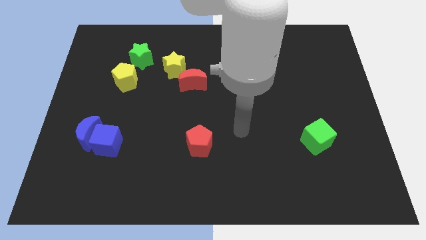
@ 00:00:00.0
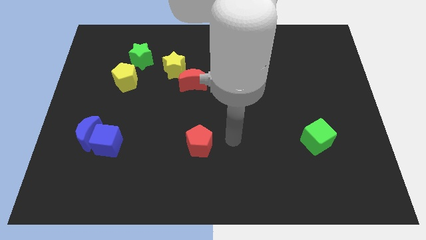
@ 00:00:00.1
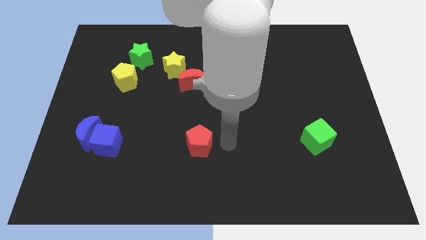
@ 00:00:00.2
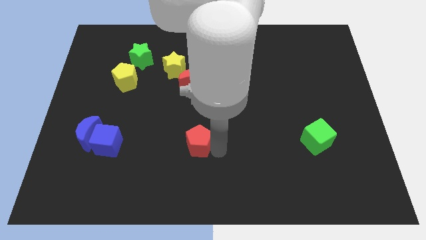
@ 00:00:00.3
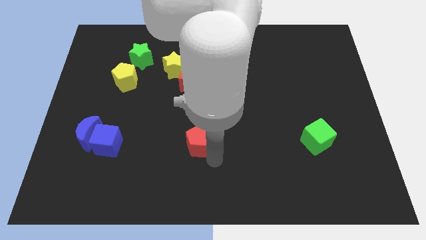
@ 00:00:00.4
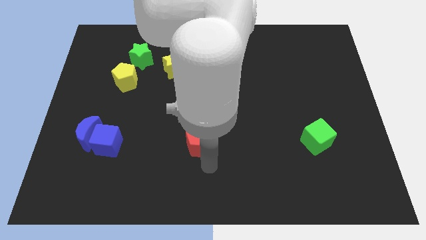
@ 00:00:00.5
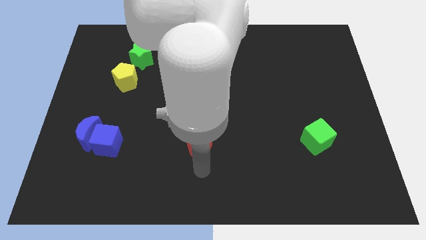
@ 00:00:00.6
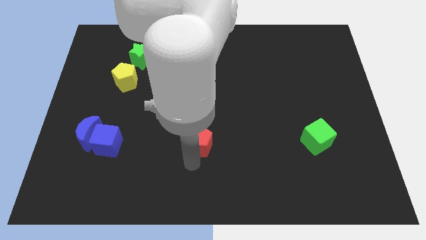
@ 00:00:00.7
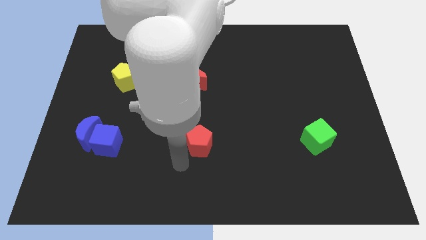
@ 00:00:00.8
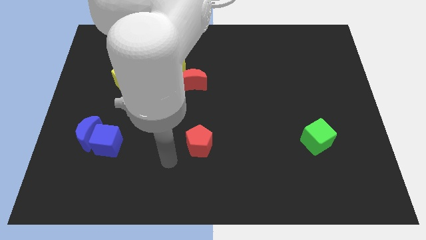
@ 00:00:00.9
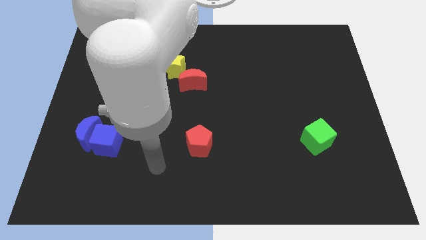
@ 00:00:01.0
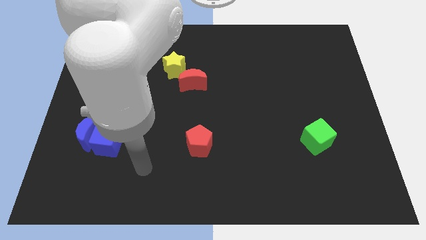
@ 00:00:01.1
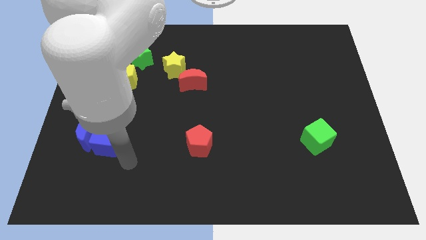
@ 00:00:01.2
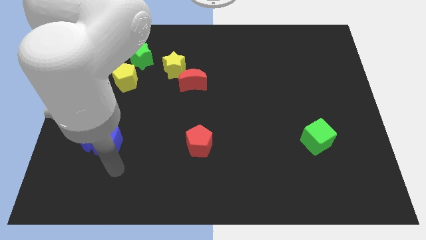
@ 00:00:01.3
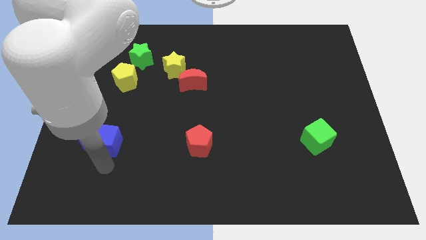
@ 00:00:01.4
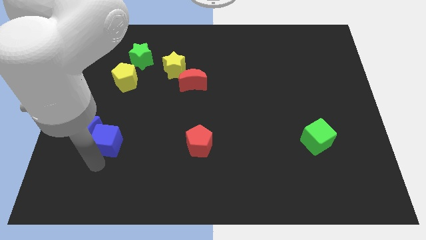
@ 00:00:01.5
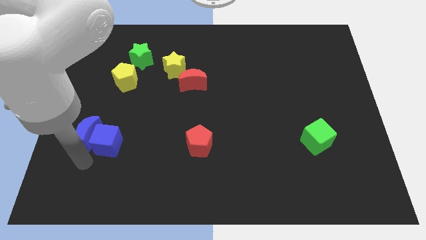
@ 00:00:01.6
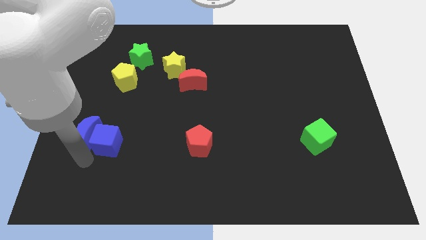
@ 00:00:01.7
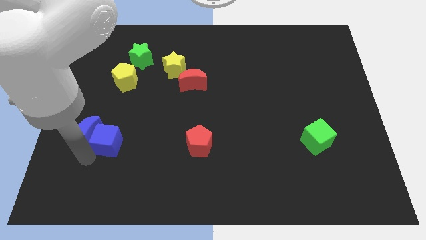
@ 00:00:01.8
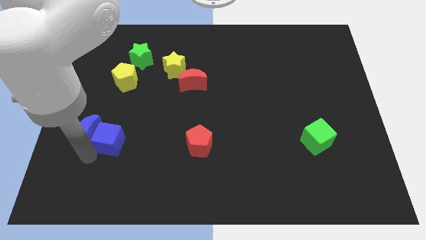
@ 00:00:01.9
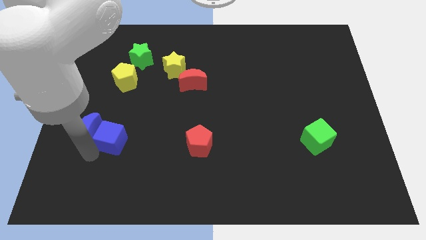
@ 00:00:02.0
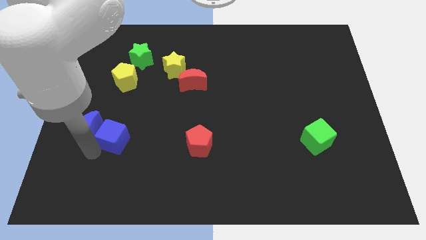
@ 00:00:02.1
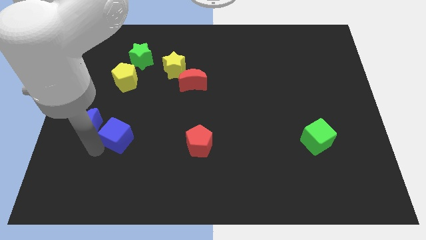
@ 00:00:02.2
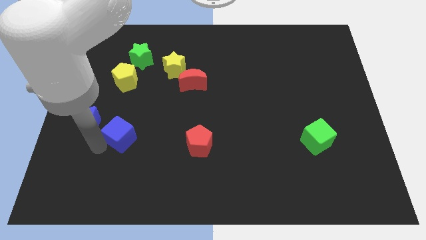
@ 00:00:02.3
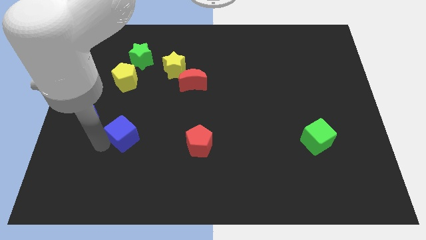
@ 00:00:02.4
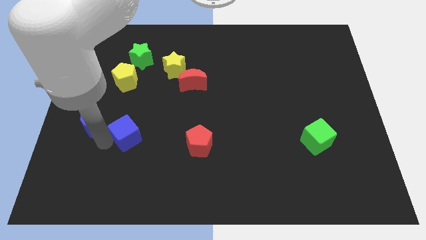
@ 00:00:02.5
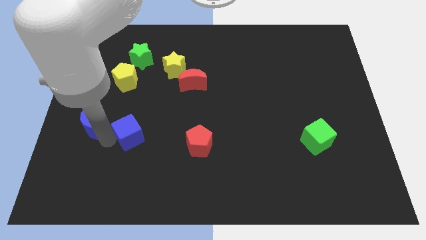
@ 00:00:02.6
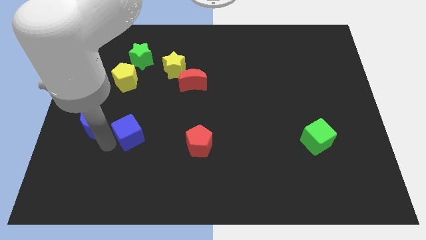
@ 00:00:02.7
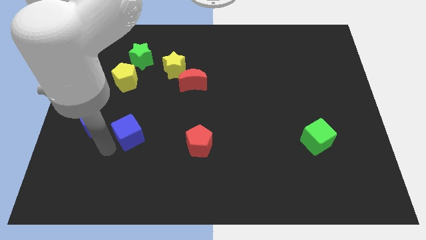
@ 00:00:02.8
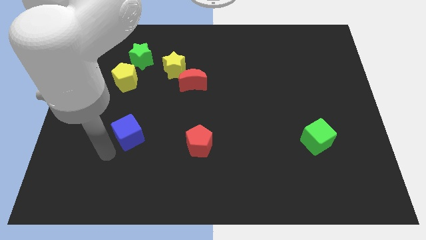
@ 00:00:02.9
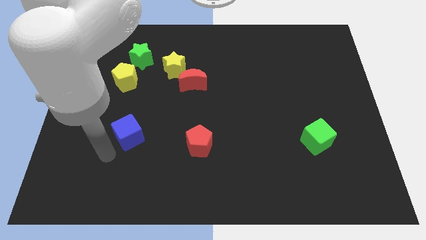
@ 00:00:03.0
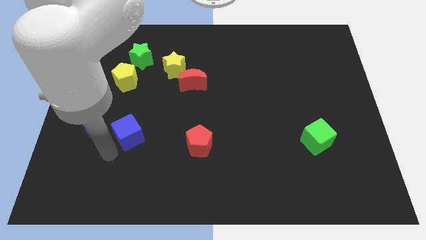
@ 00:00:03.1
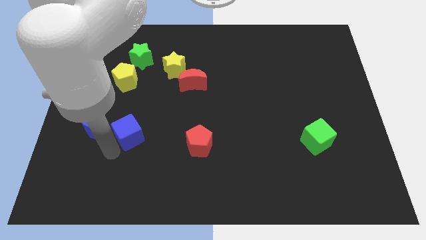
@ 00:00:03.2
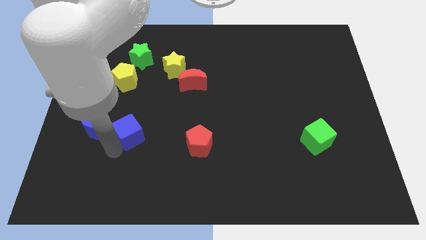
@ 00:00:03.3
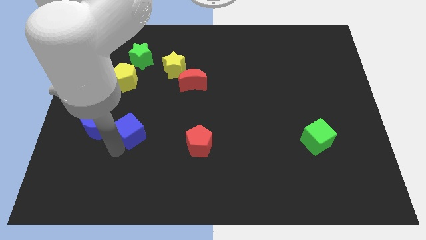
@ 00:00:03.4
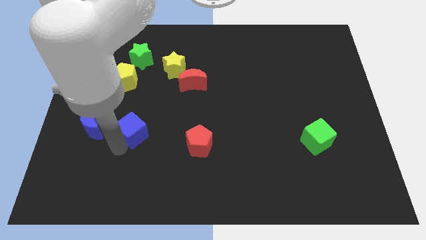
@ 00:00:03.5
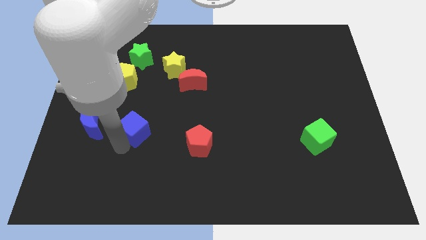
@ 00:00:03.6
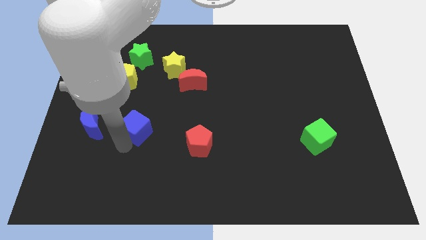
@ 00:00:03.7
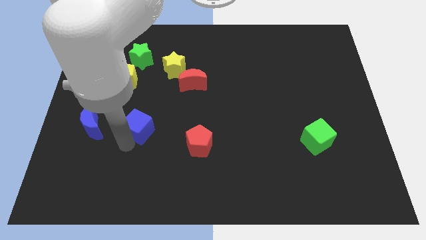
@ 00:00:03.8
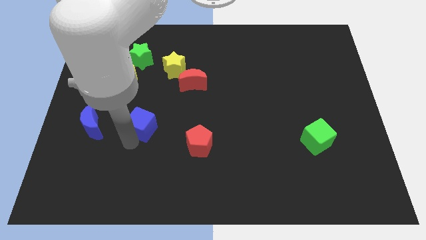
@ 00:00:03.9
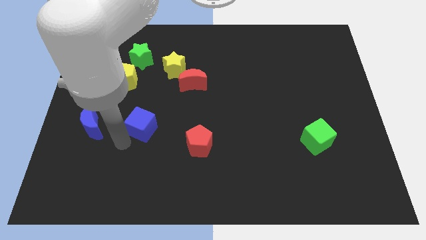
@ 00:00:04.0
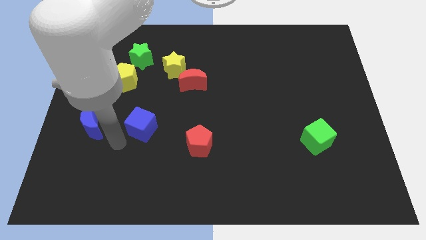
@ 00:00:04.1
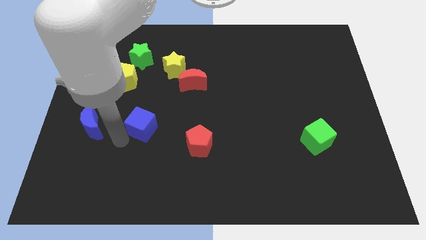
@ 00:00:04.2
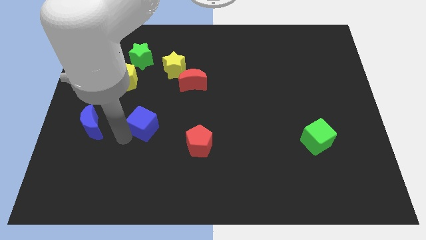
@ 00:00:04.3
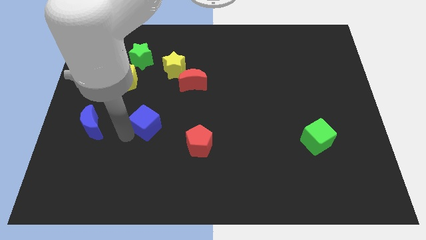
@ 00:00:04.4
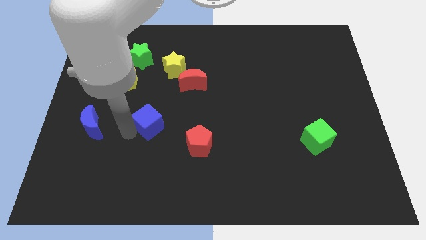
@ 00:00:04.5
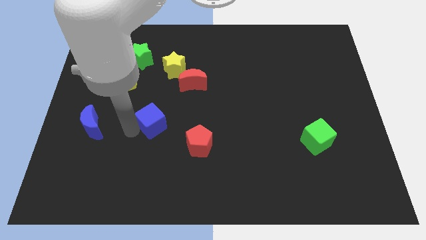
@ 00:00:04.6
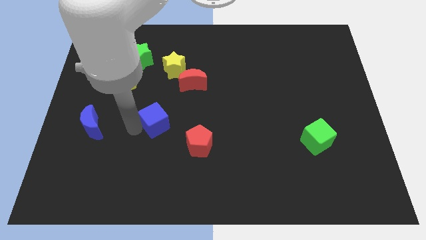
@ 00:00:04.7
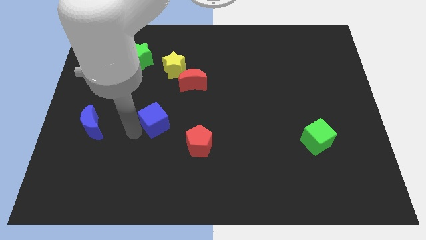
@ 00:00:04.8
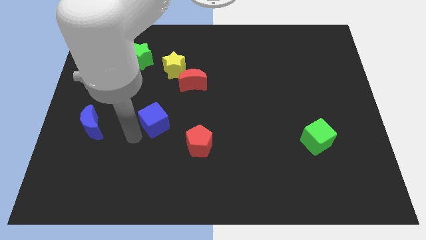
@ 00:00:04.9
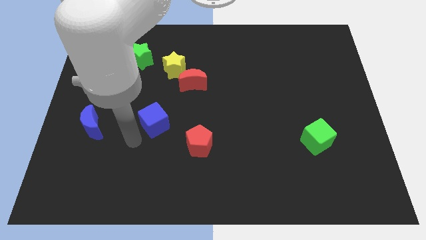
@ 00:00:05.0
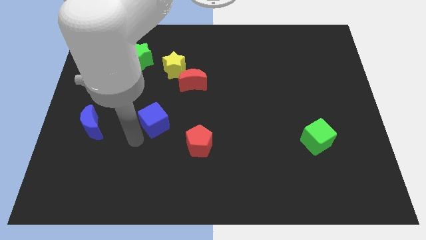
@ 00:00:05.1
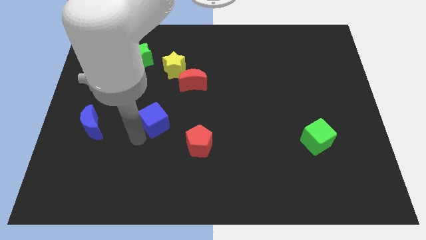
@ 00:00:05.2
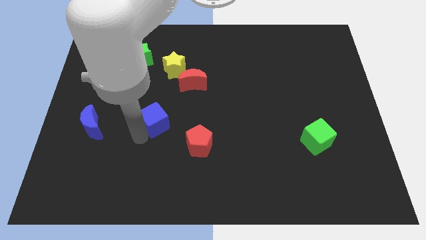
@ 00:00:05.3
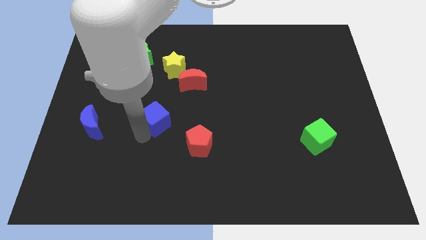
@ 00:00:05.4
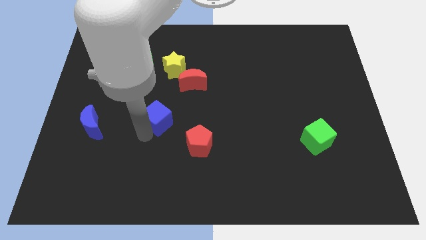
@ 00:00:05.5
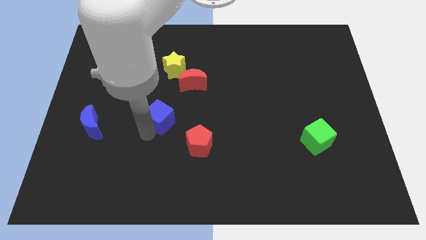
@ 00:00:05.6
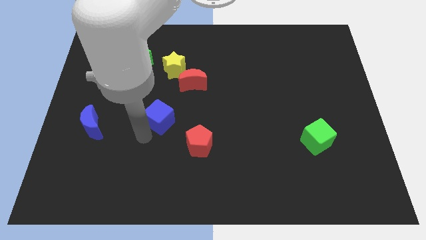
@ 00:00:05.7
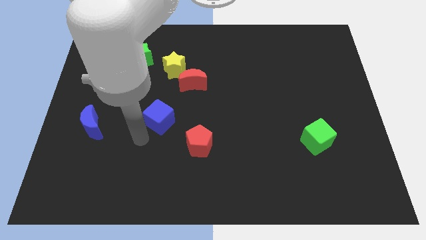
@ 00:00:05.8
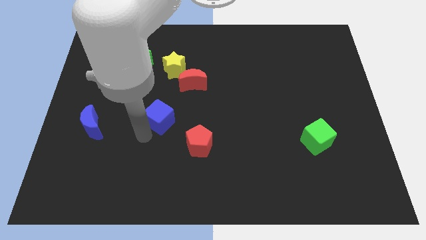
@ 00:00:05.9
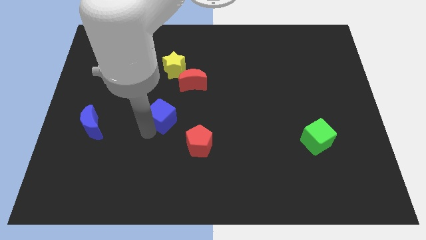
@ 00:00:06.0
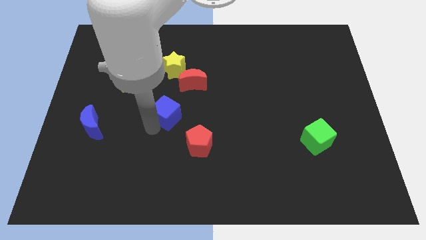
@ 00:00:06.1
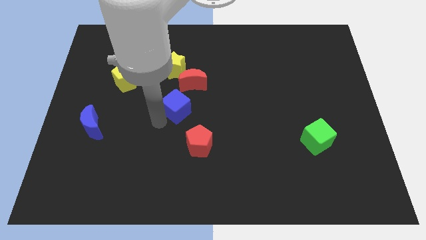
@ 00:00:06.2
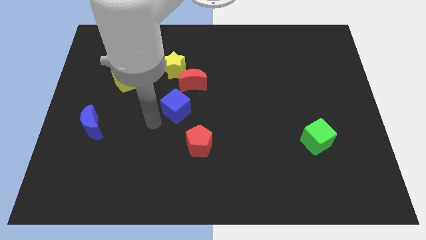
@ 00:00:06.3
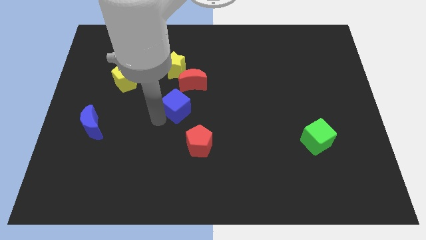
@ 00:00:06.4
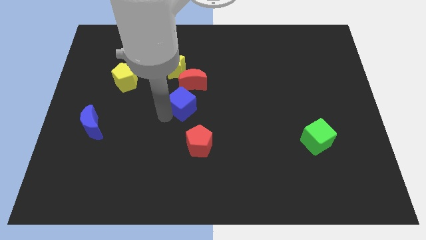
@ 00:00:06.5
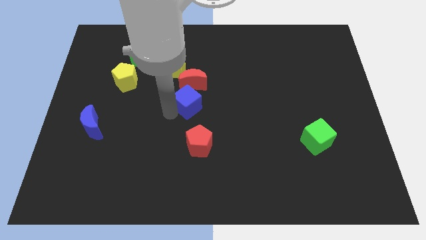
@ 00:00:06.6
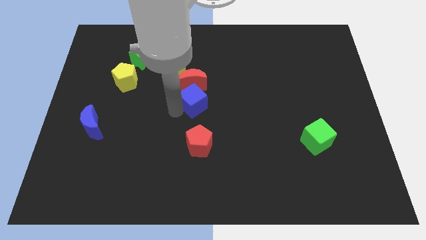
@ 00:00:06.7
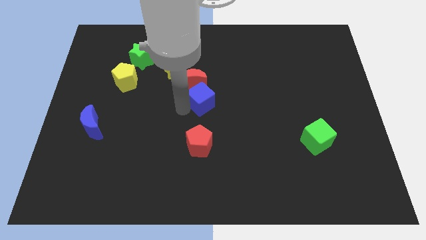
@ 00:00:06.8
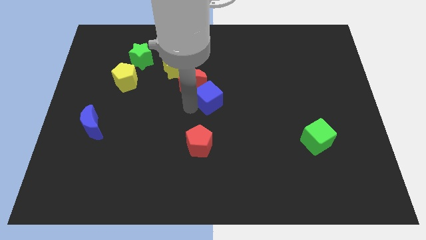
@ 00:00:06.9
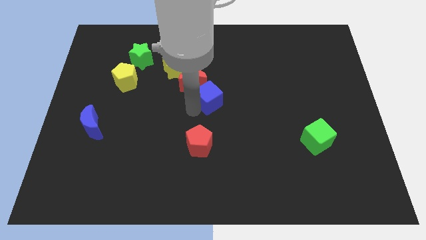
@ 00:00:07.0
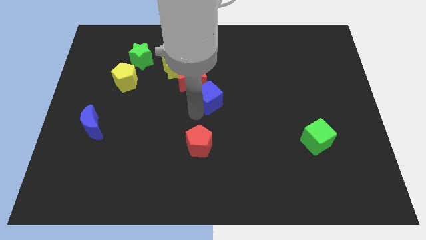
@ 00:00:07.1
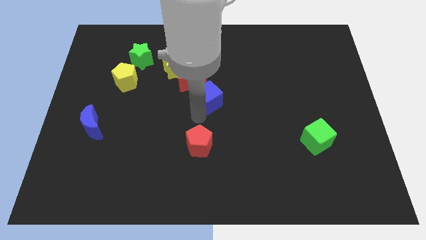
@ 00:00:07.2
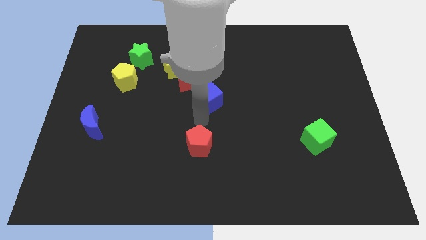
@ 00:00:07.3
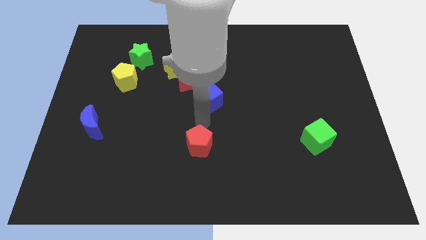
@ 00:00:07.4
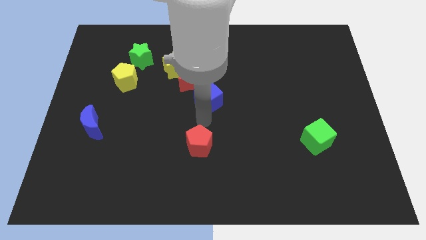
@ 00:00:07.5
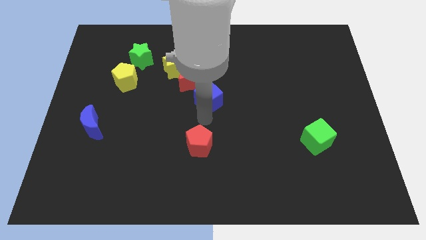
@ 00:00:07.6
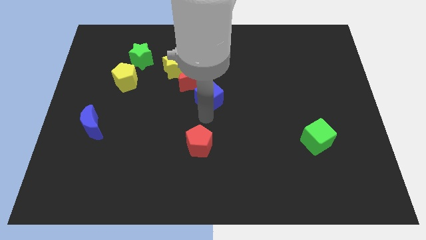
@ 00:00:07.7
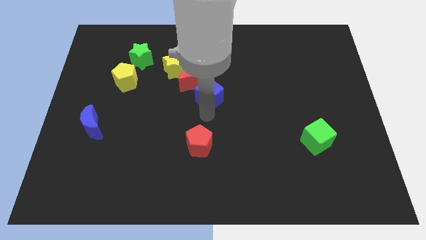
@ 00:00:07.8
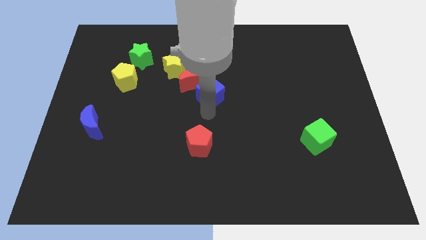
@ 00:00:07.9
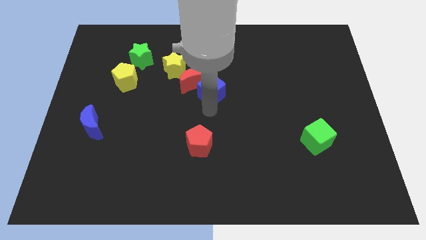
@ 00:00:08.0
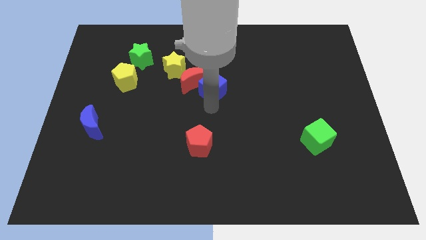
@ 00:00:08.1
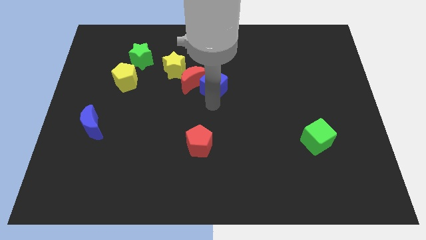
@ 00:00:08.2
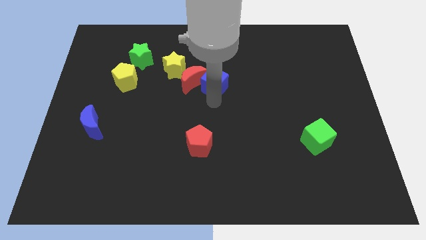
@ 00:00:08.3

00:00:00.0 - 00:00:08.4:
move the blue cube to the top right of the red moon
